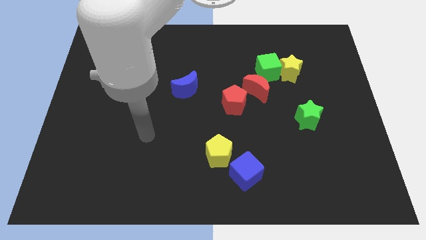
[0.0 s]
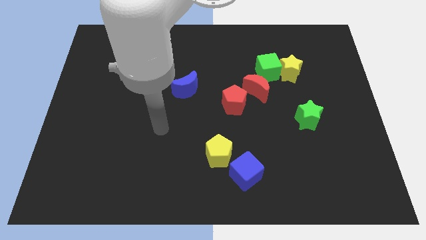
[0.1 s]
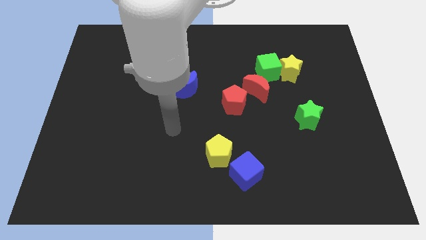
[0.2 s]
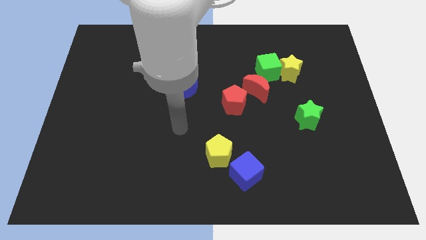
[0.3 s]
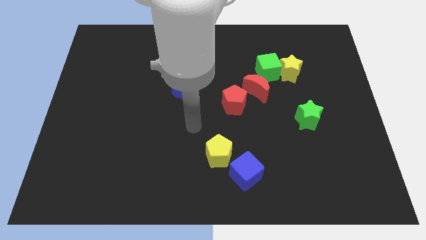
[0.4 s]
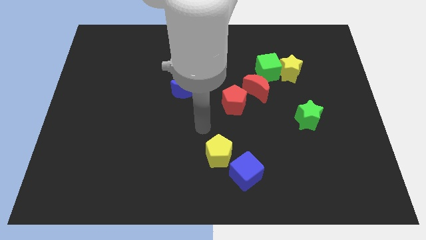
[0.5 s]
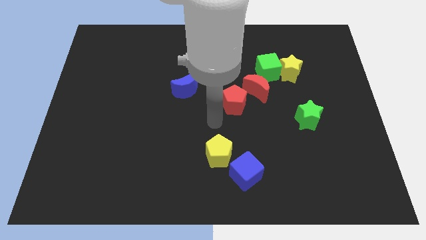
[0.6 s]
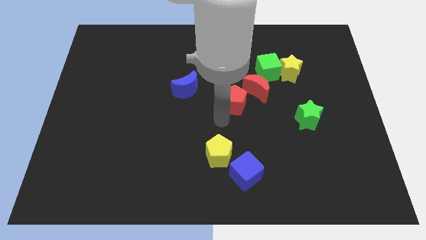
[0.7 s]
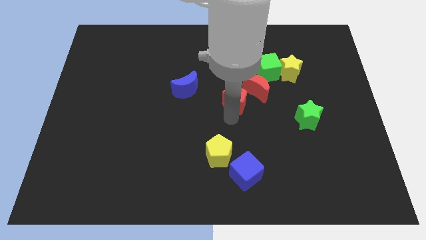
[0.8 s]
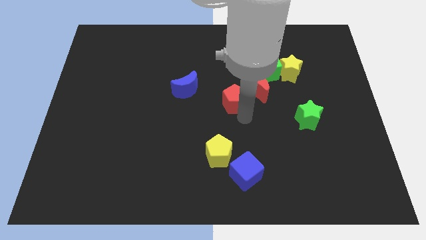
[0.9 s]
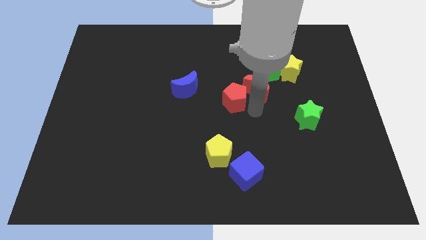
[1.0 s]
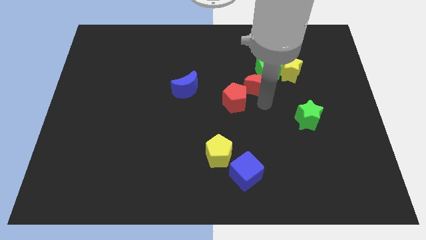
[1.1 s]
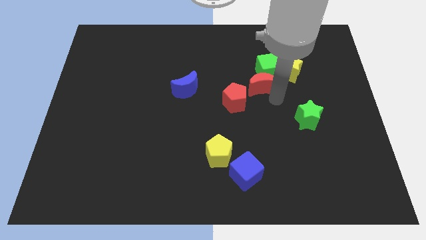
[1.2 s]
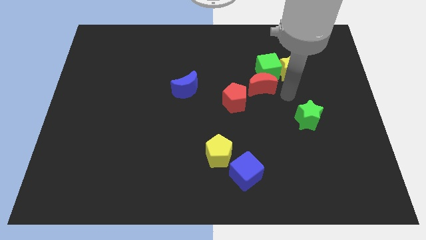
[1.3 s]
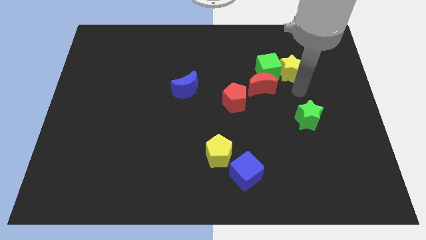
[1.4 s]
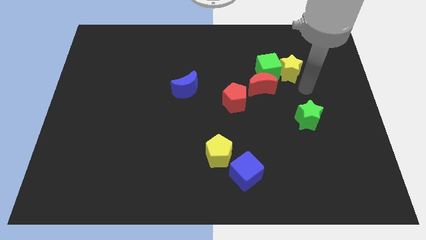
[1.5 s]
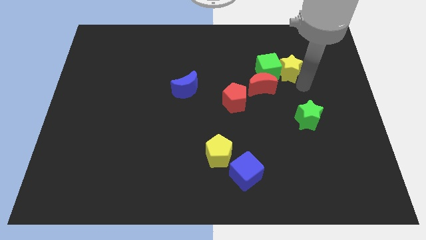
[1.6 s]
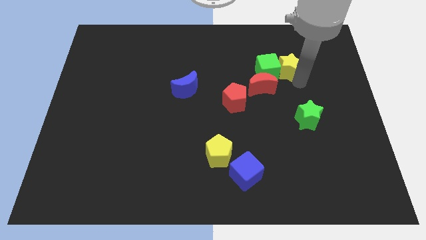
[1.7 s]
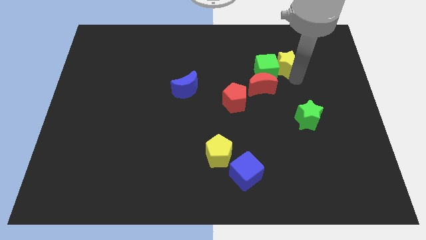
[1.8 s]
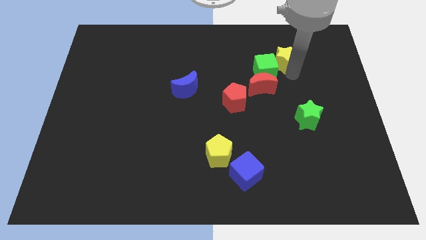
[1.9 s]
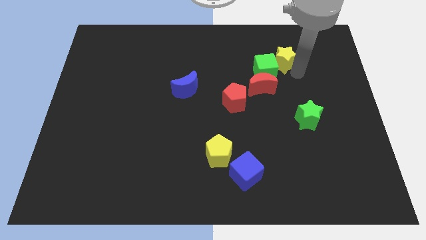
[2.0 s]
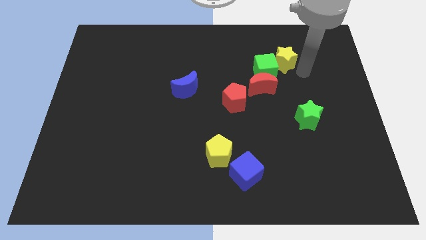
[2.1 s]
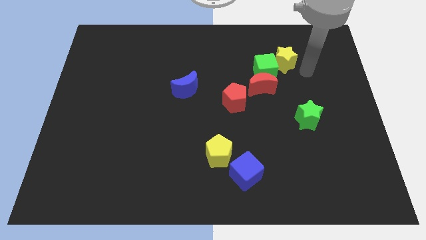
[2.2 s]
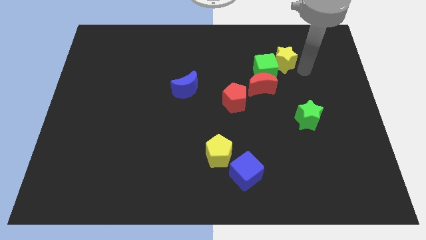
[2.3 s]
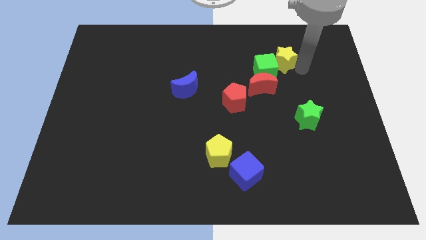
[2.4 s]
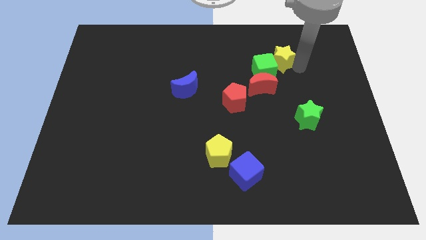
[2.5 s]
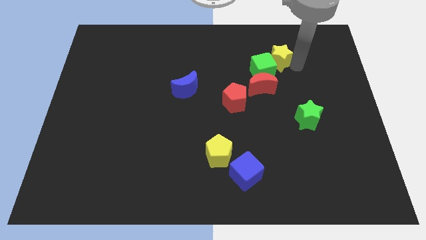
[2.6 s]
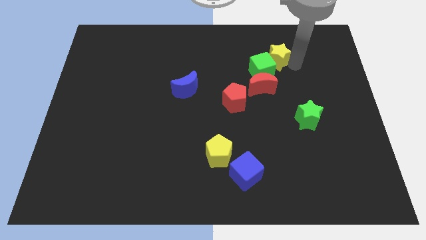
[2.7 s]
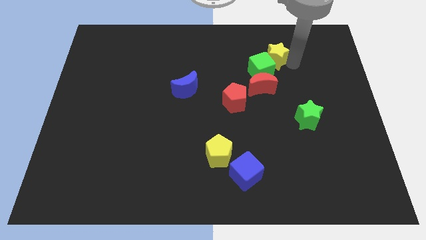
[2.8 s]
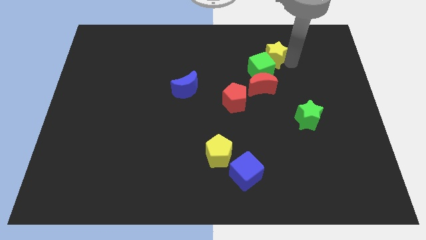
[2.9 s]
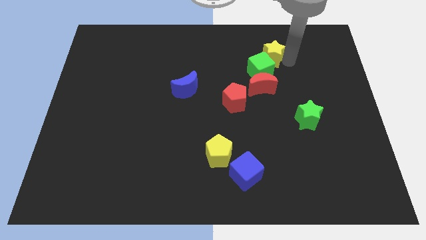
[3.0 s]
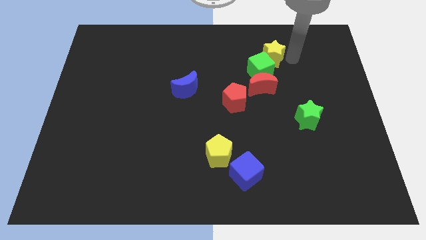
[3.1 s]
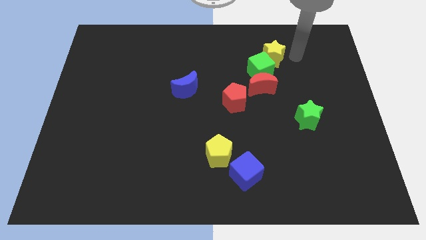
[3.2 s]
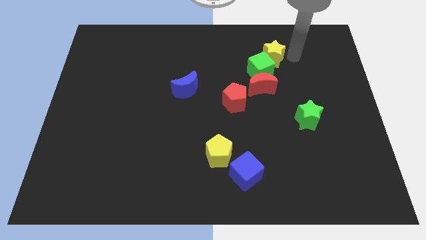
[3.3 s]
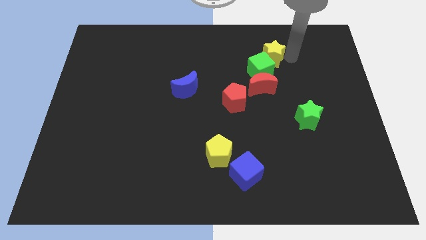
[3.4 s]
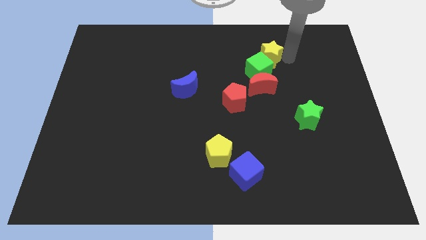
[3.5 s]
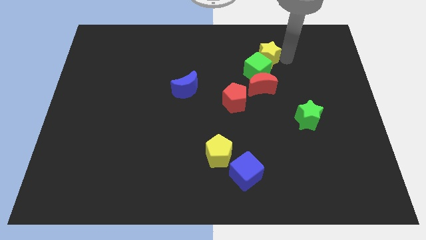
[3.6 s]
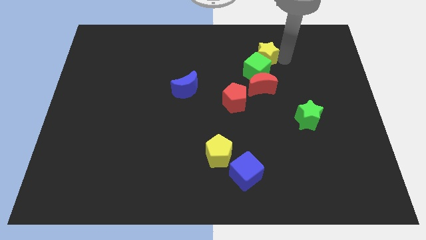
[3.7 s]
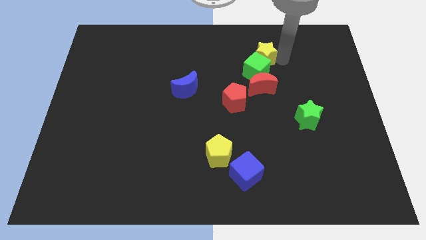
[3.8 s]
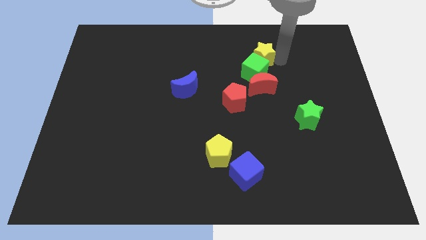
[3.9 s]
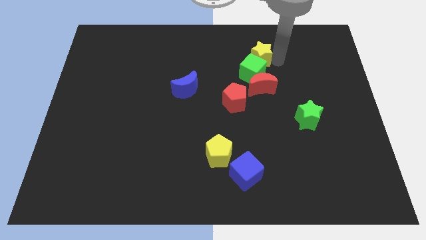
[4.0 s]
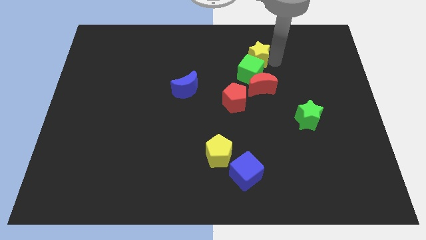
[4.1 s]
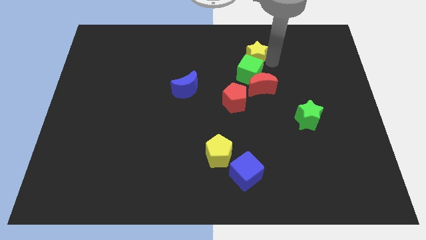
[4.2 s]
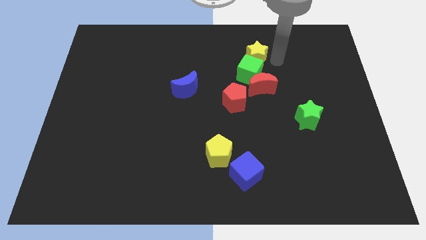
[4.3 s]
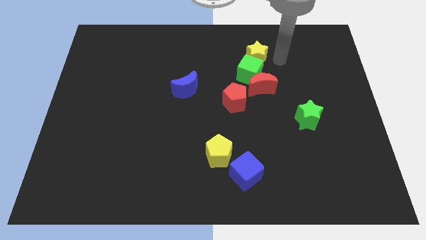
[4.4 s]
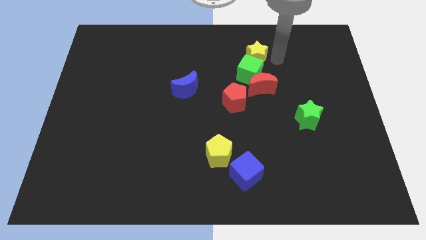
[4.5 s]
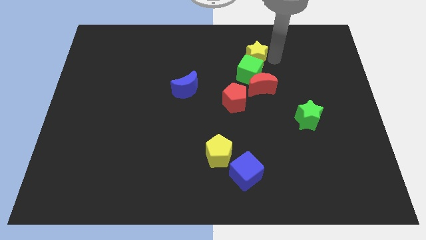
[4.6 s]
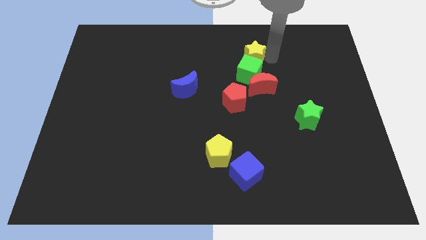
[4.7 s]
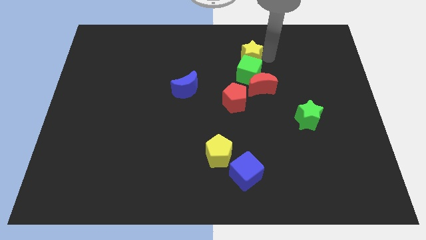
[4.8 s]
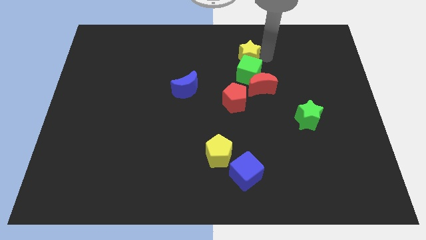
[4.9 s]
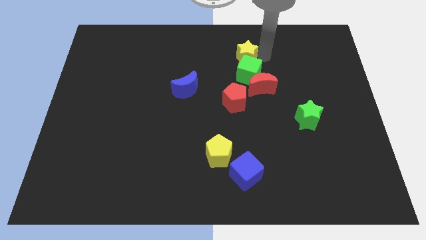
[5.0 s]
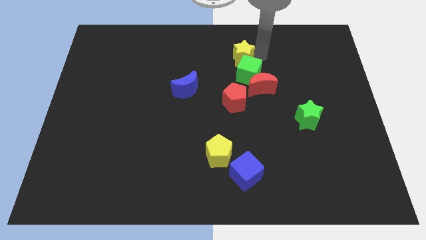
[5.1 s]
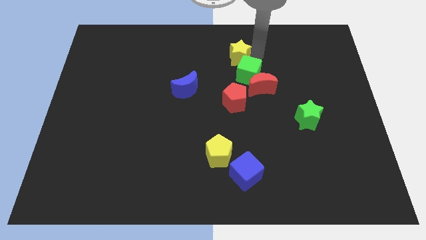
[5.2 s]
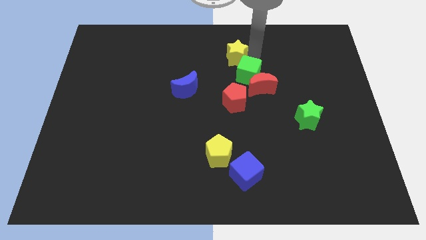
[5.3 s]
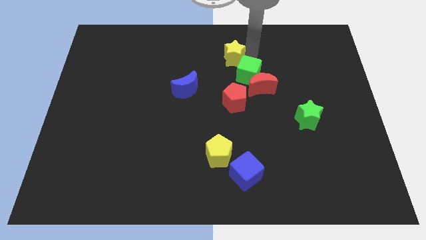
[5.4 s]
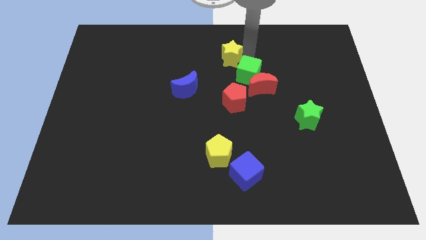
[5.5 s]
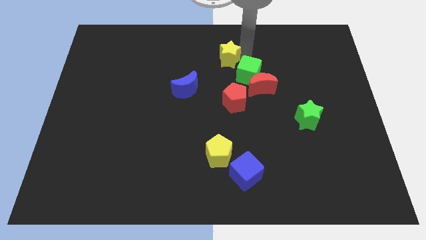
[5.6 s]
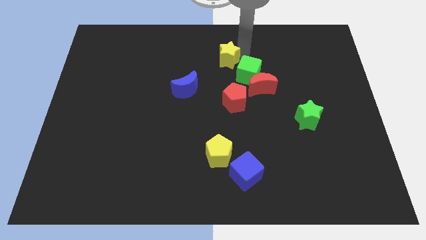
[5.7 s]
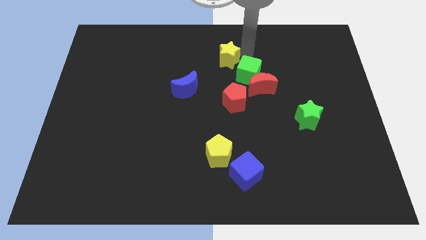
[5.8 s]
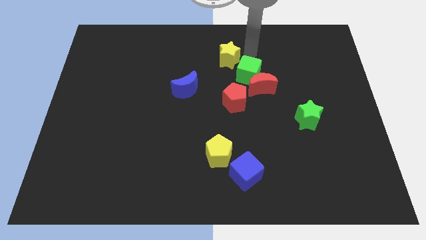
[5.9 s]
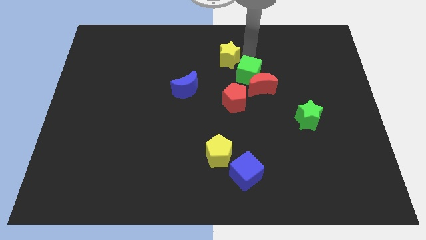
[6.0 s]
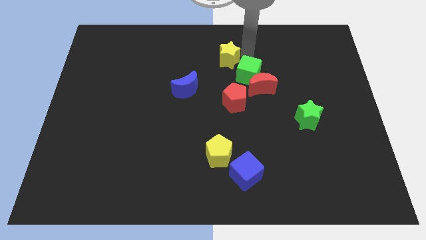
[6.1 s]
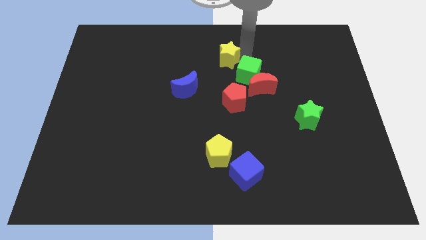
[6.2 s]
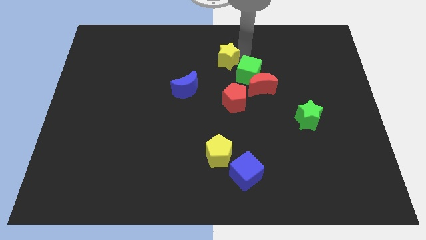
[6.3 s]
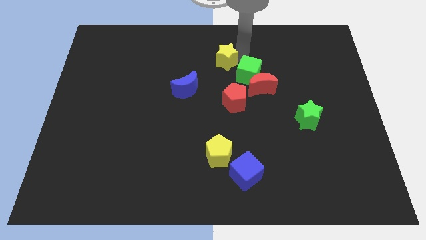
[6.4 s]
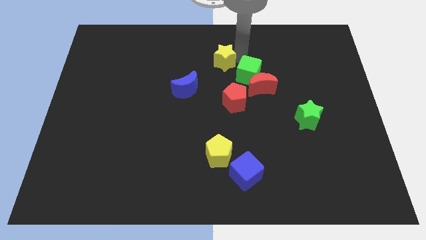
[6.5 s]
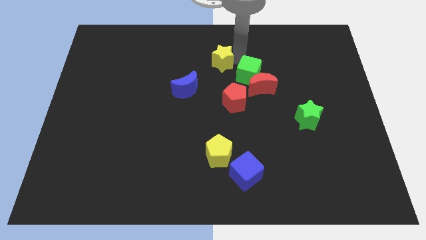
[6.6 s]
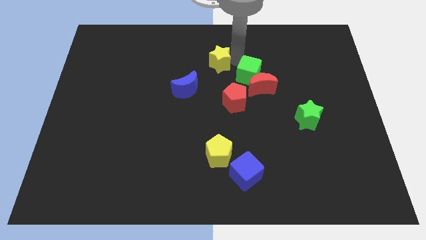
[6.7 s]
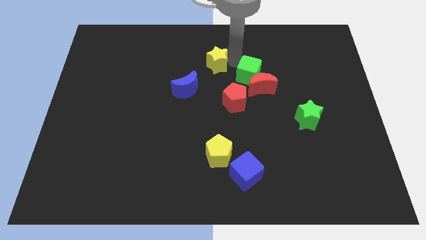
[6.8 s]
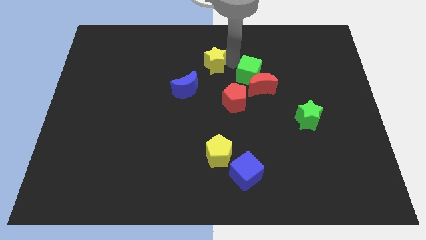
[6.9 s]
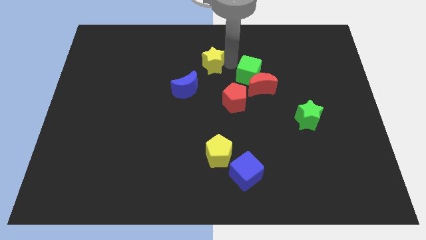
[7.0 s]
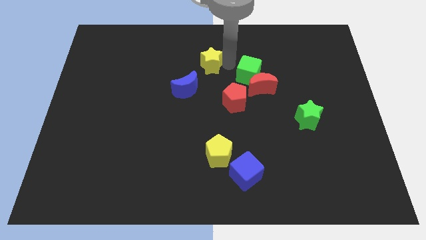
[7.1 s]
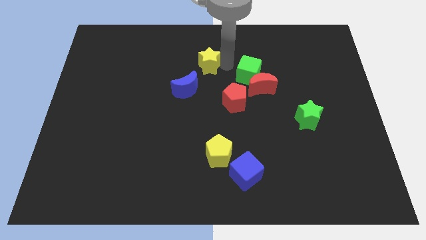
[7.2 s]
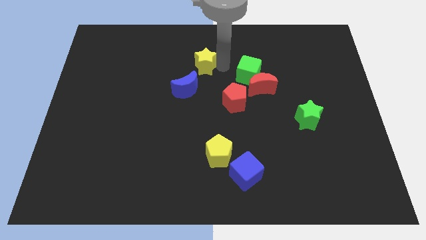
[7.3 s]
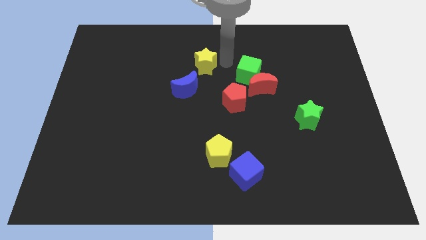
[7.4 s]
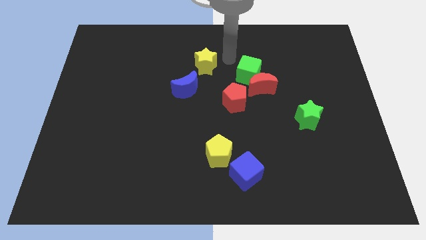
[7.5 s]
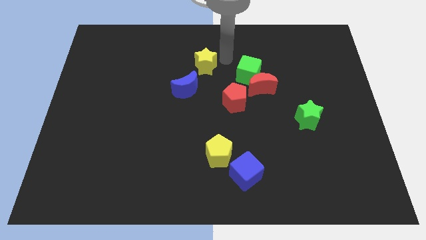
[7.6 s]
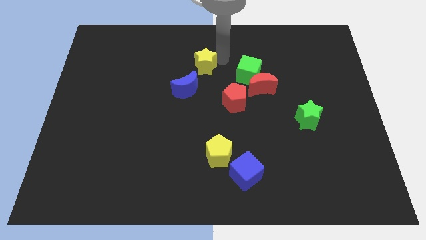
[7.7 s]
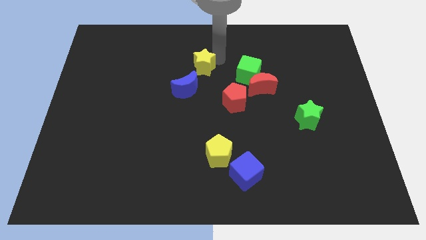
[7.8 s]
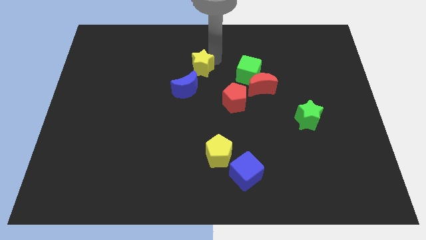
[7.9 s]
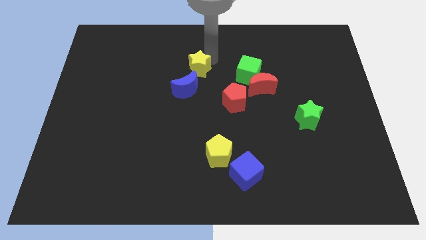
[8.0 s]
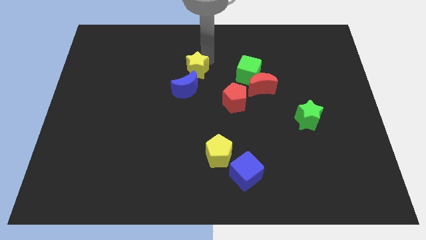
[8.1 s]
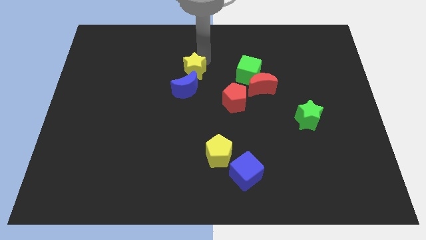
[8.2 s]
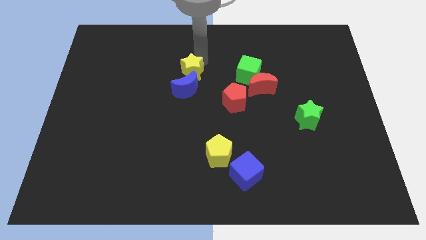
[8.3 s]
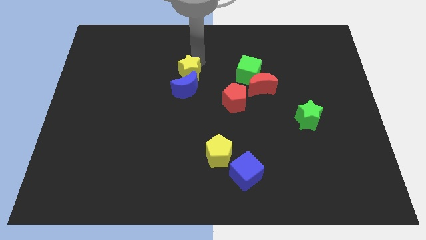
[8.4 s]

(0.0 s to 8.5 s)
push the yellow star diagonally up and to the left of the blue moon
